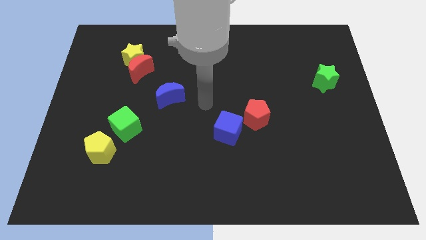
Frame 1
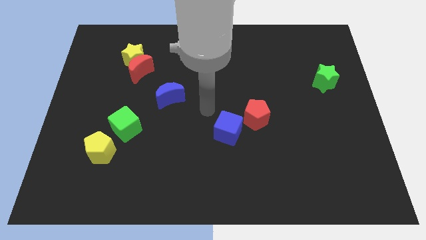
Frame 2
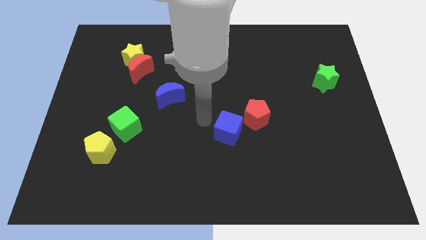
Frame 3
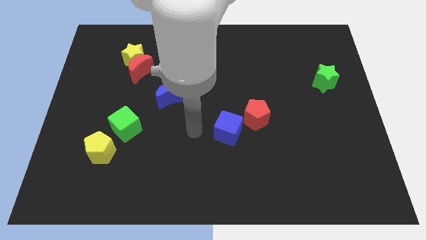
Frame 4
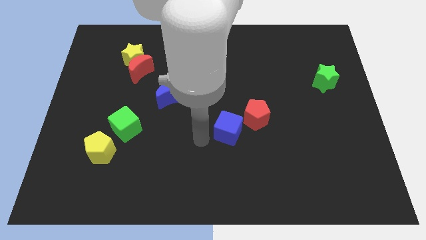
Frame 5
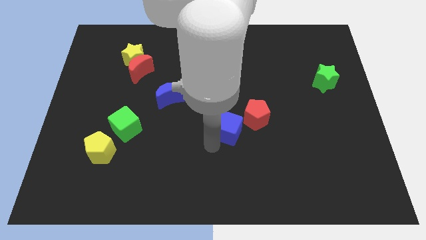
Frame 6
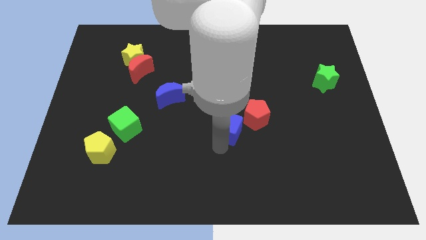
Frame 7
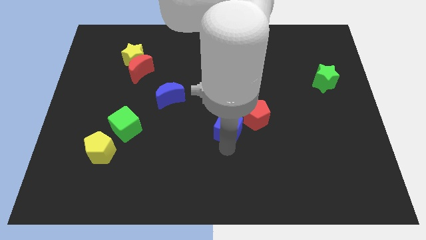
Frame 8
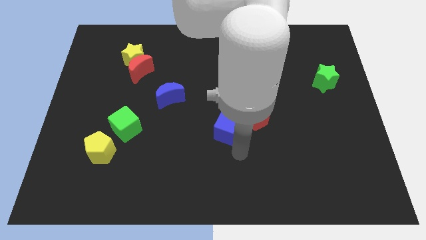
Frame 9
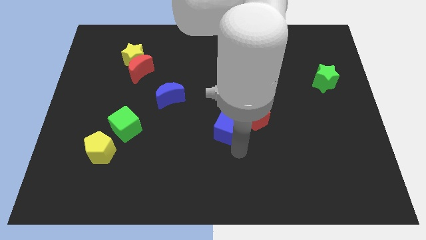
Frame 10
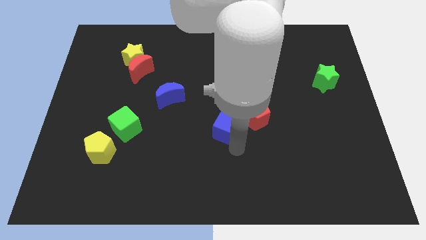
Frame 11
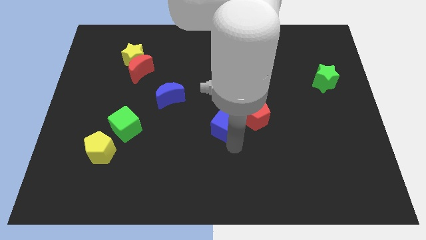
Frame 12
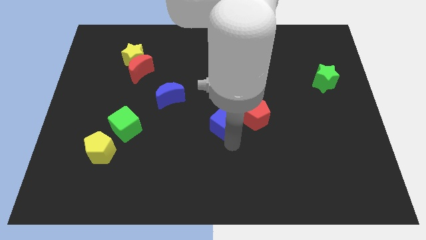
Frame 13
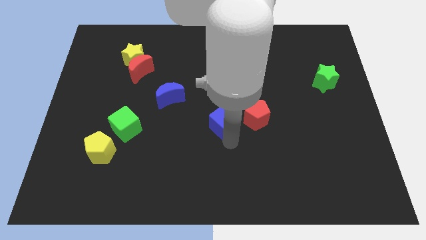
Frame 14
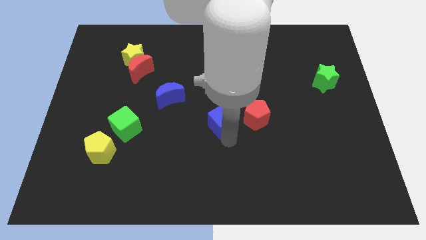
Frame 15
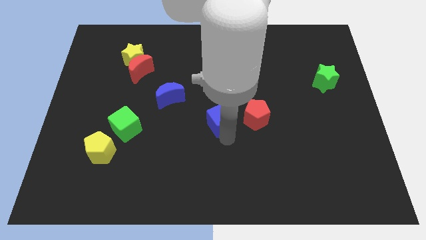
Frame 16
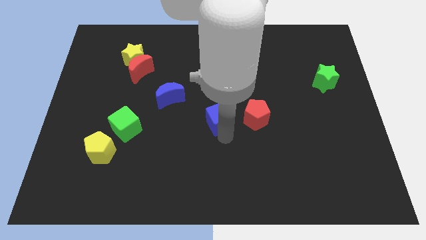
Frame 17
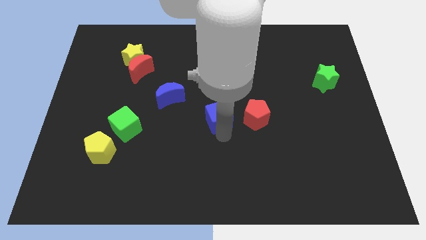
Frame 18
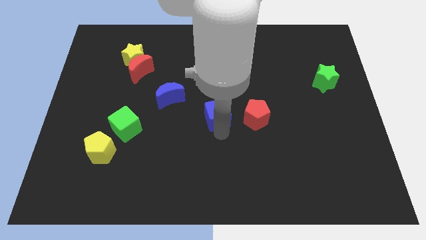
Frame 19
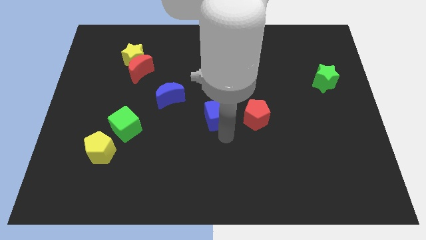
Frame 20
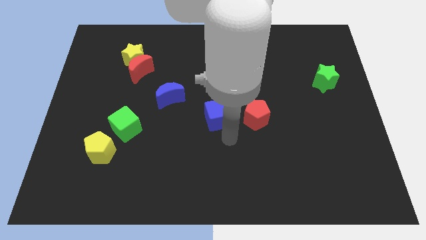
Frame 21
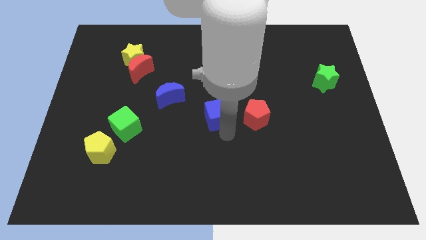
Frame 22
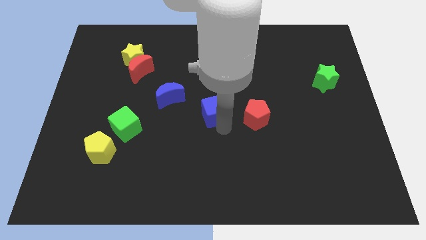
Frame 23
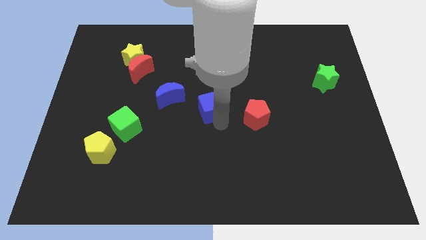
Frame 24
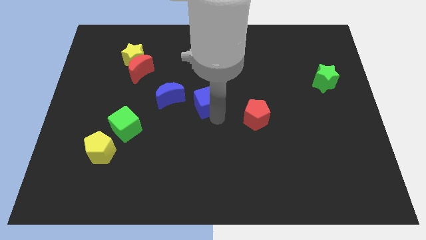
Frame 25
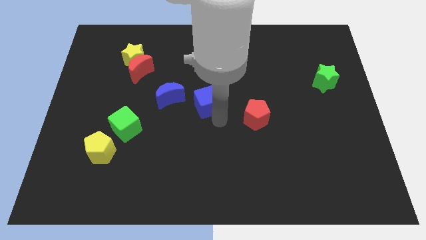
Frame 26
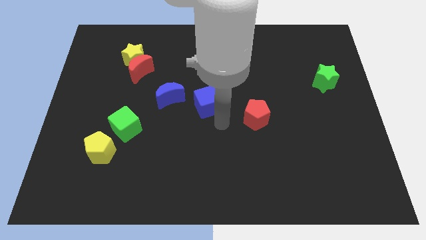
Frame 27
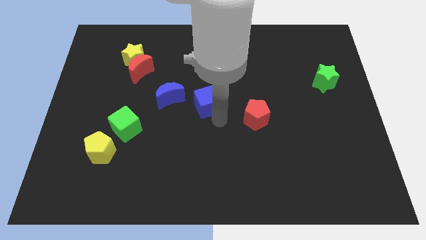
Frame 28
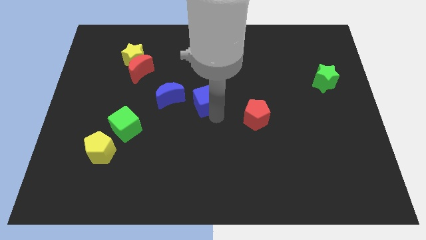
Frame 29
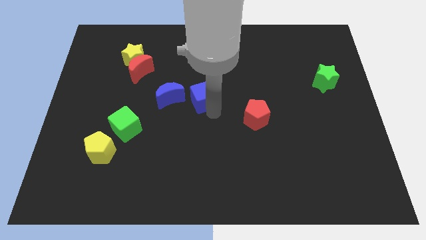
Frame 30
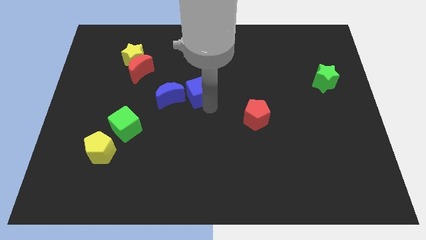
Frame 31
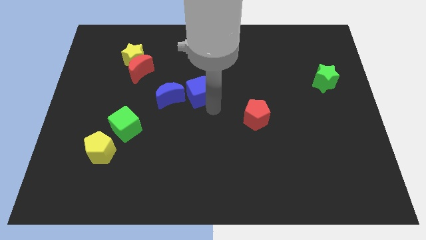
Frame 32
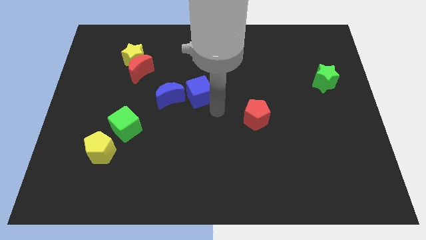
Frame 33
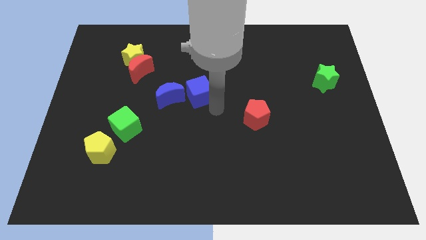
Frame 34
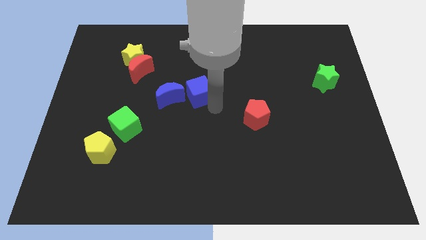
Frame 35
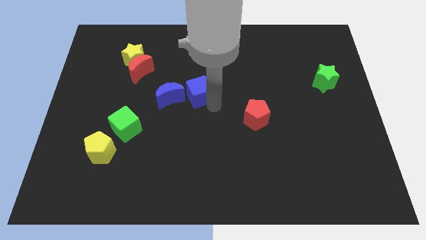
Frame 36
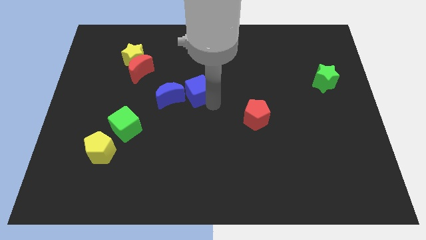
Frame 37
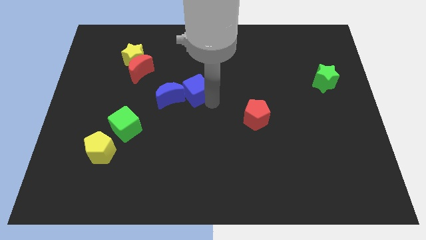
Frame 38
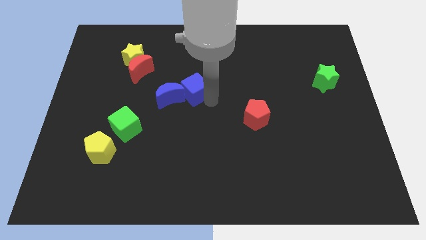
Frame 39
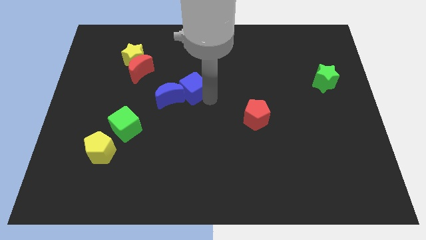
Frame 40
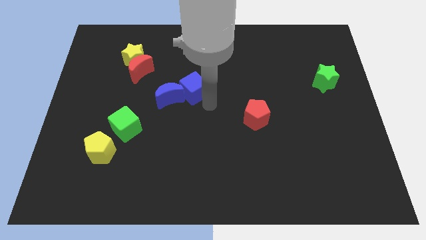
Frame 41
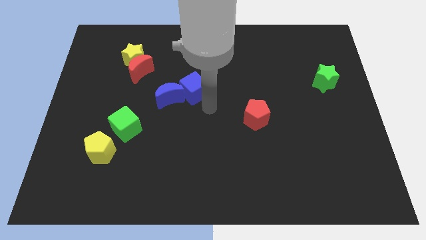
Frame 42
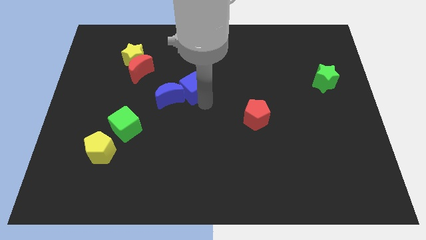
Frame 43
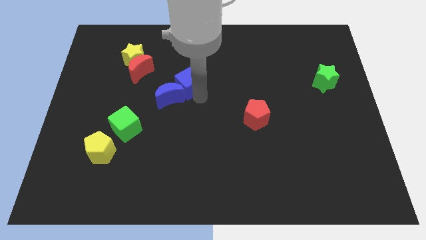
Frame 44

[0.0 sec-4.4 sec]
push the blue cube to the top of the blue moon

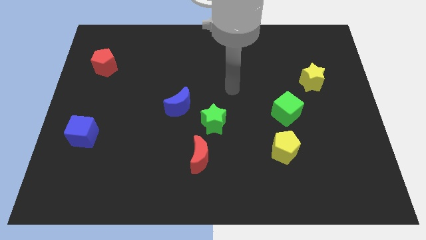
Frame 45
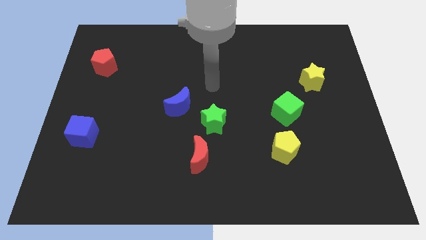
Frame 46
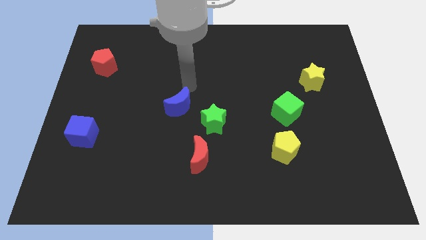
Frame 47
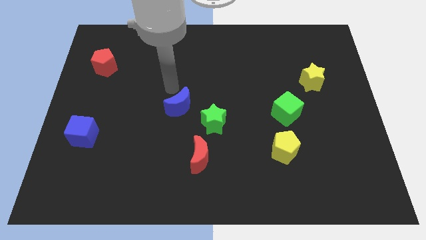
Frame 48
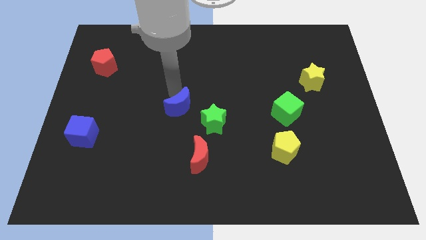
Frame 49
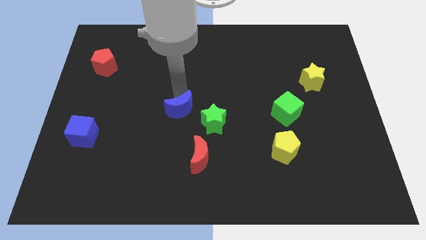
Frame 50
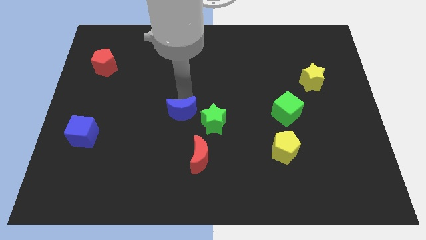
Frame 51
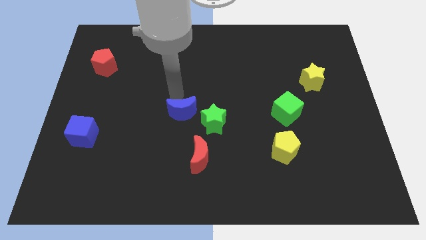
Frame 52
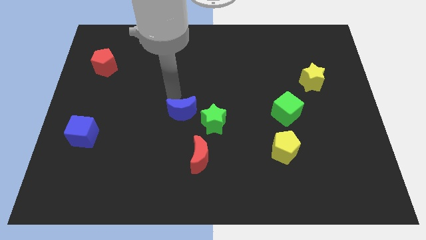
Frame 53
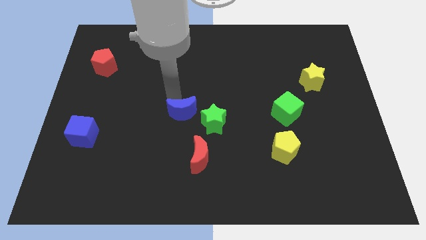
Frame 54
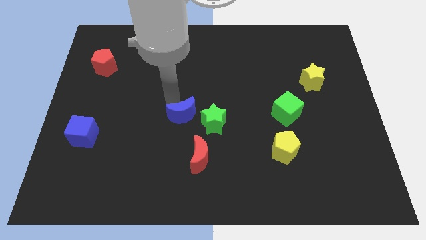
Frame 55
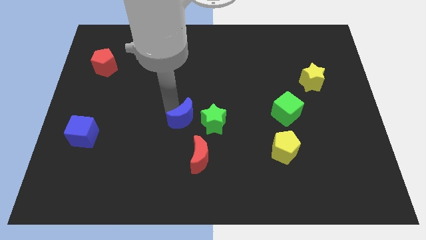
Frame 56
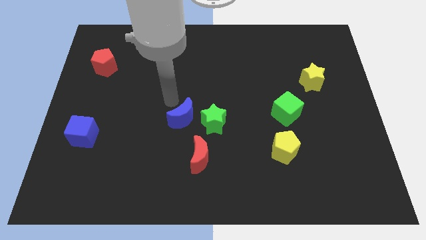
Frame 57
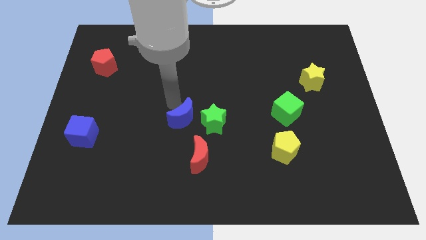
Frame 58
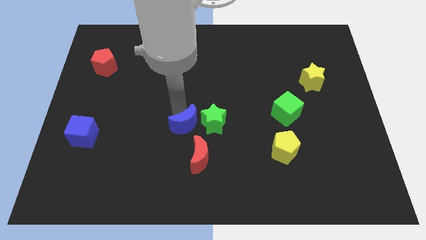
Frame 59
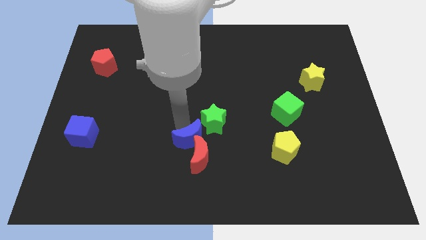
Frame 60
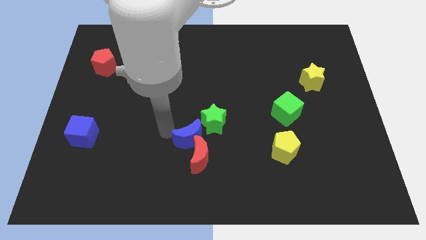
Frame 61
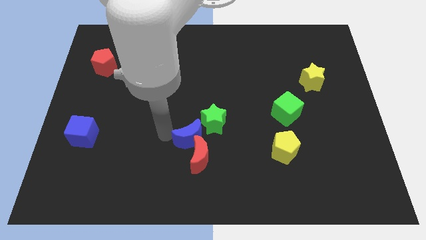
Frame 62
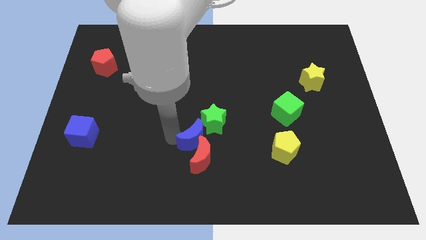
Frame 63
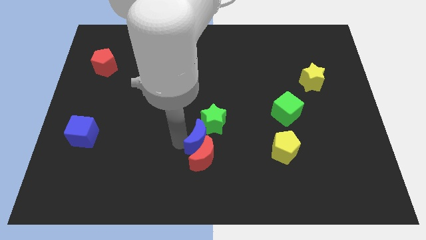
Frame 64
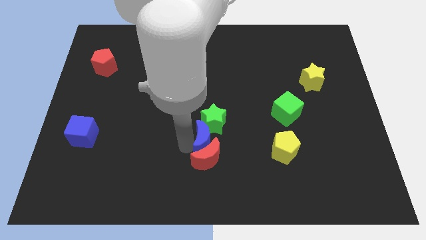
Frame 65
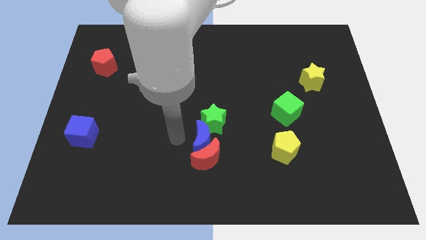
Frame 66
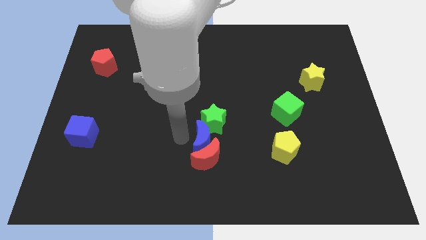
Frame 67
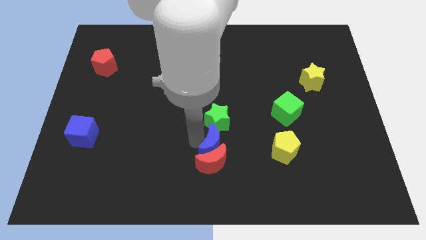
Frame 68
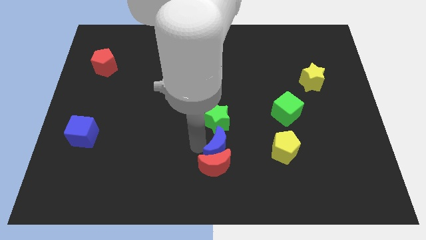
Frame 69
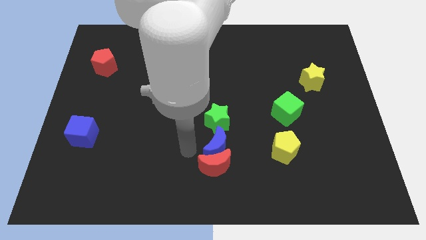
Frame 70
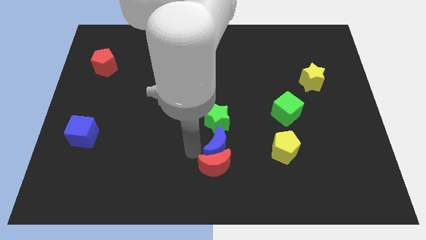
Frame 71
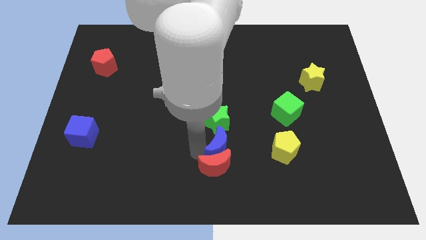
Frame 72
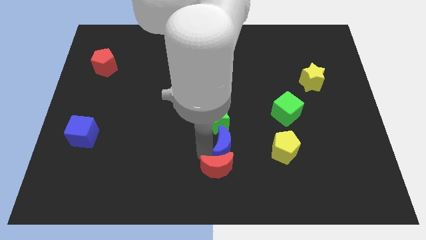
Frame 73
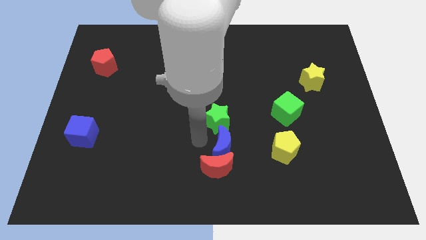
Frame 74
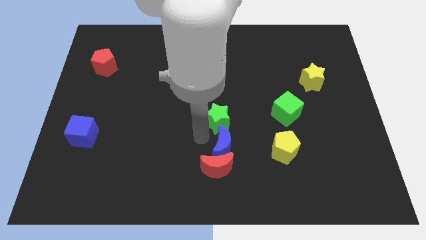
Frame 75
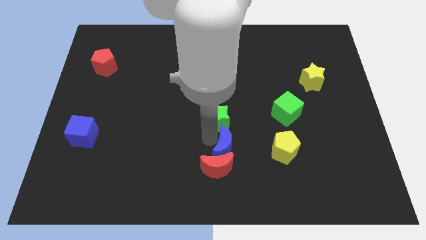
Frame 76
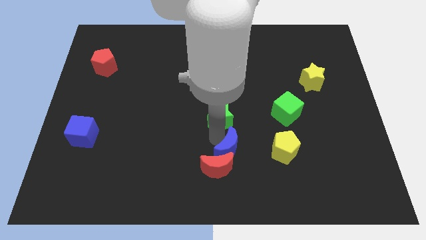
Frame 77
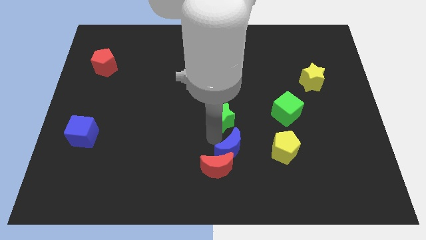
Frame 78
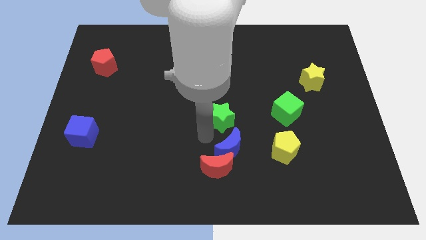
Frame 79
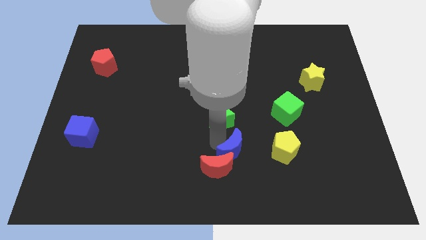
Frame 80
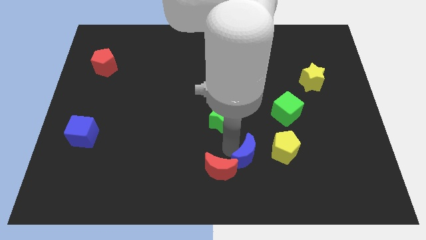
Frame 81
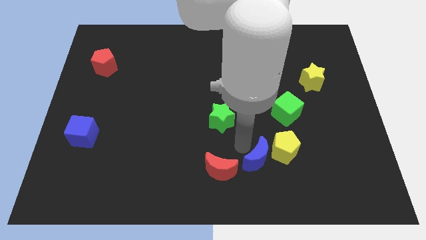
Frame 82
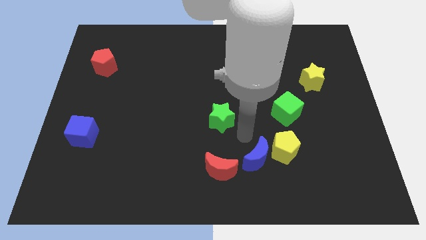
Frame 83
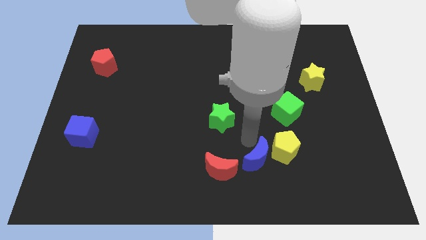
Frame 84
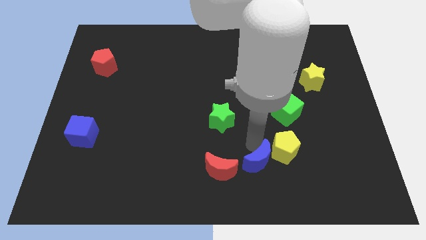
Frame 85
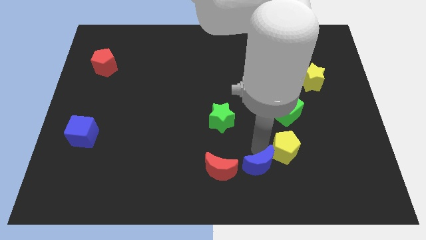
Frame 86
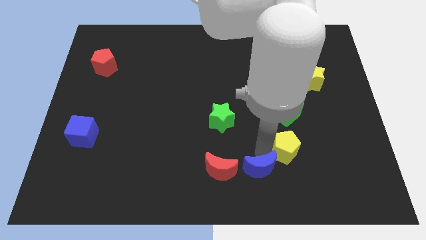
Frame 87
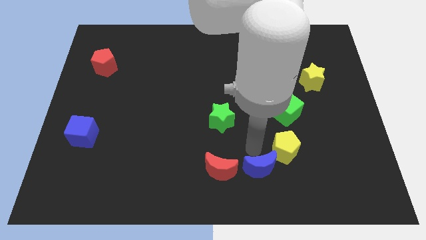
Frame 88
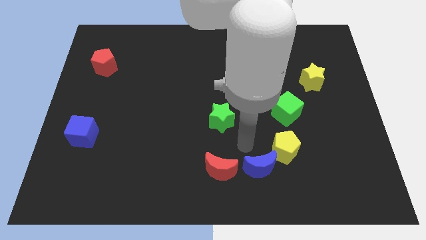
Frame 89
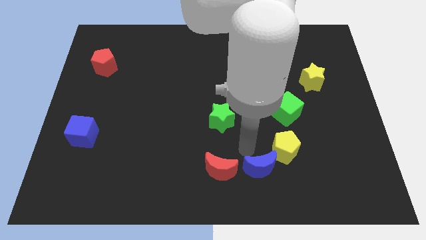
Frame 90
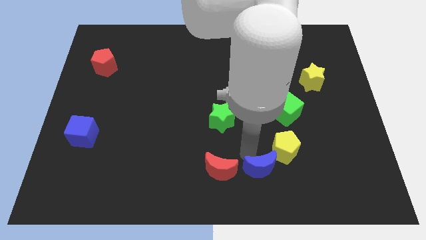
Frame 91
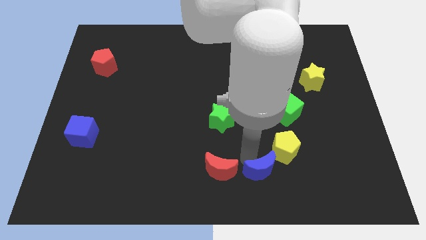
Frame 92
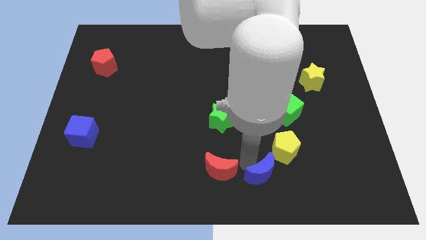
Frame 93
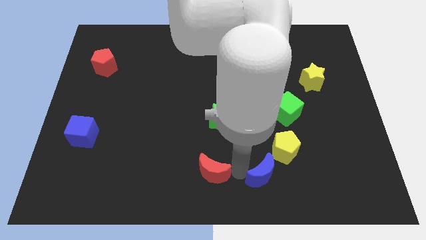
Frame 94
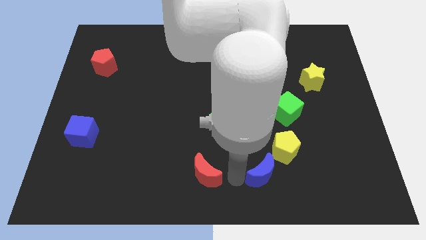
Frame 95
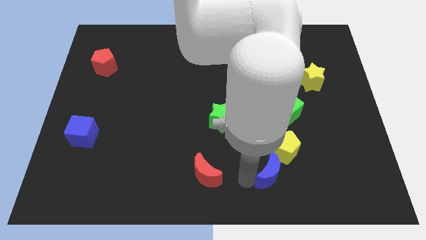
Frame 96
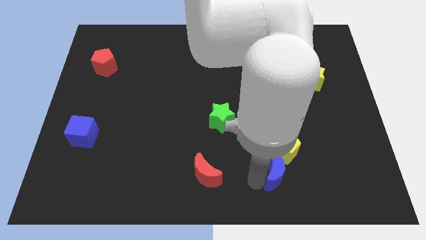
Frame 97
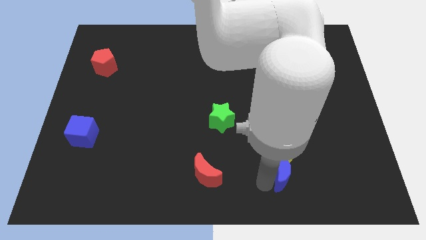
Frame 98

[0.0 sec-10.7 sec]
push the blue moon diagonally down and to the right of the yellow pentagon
